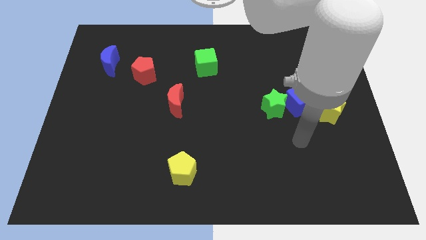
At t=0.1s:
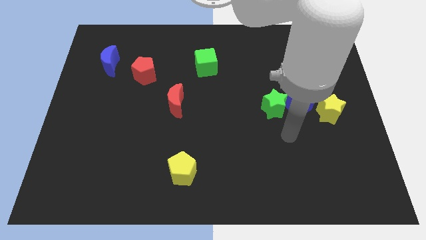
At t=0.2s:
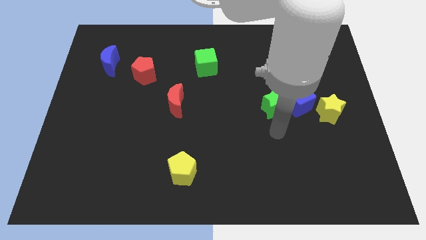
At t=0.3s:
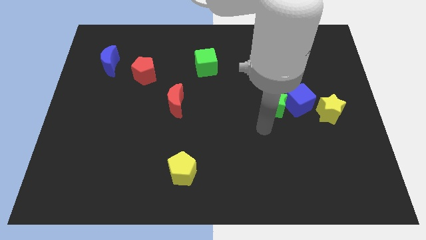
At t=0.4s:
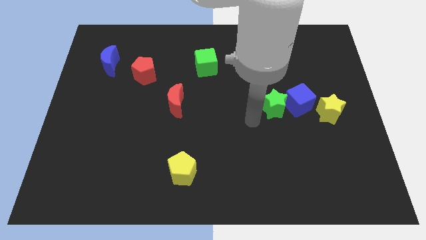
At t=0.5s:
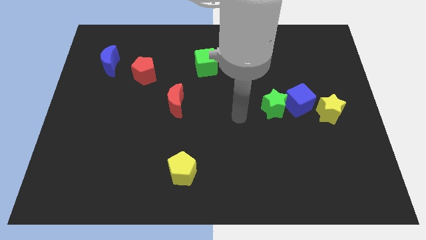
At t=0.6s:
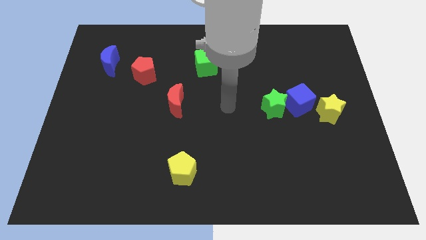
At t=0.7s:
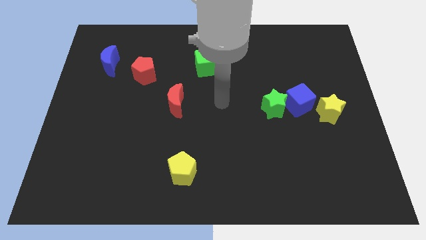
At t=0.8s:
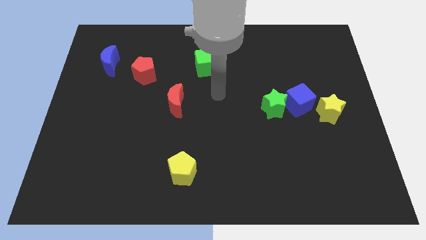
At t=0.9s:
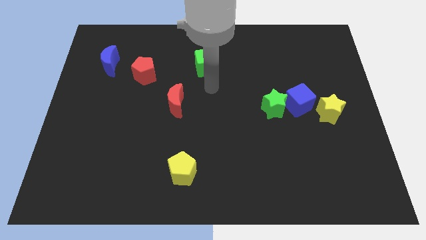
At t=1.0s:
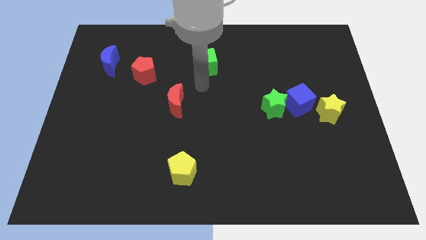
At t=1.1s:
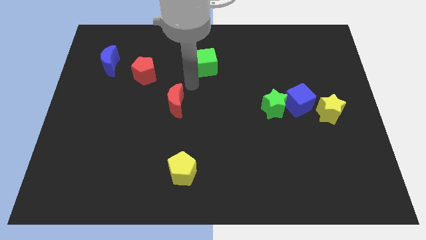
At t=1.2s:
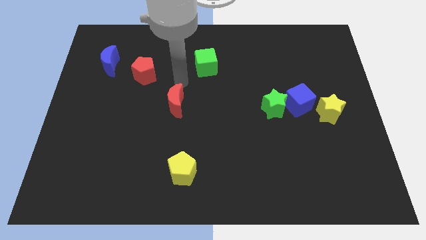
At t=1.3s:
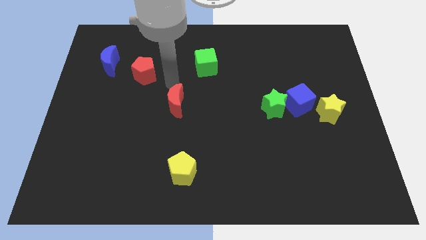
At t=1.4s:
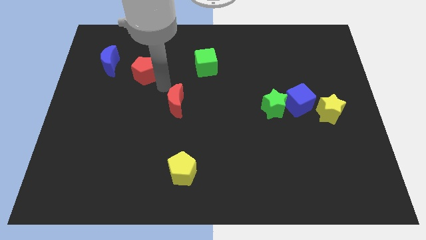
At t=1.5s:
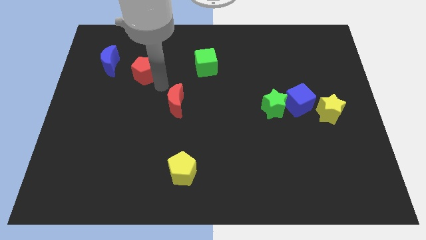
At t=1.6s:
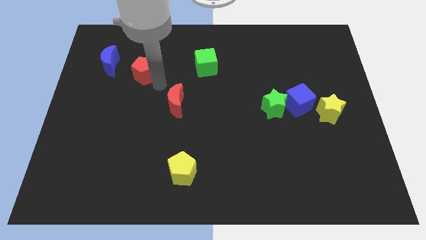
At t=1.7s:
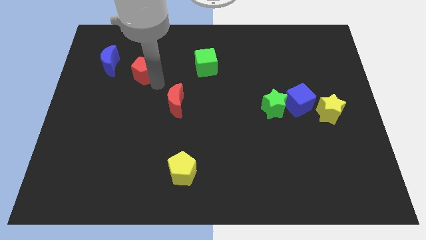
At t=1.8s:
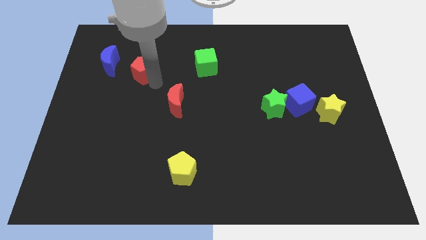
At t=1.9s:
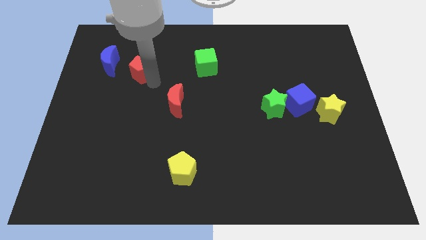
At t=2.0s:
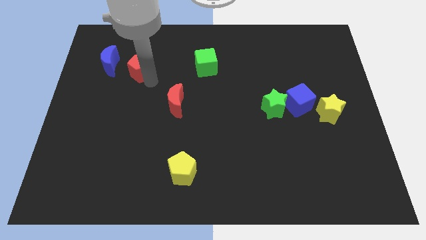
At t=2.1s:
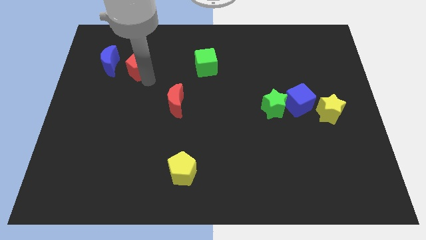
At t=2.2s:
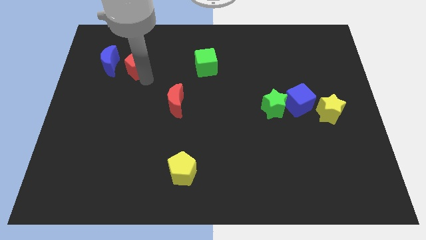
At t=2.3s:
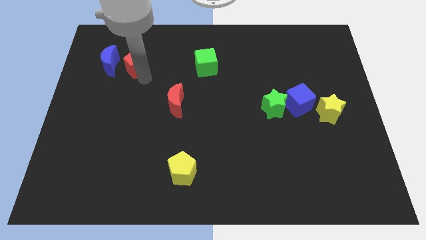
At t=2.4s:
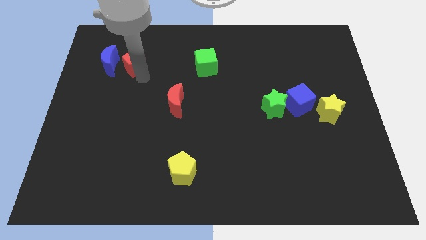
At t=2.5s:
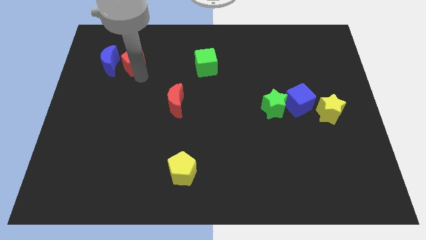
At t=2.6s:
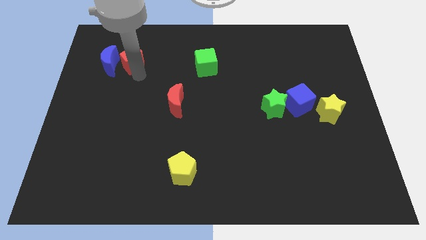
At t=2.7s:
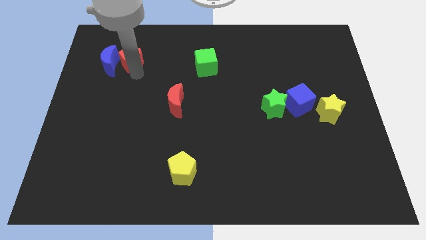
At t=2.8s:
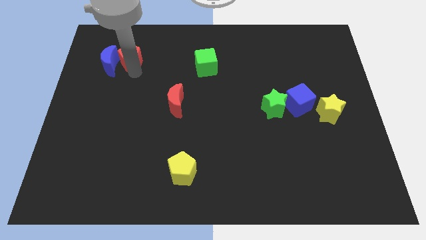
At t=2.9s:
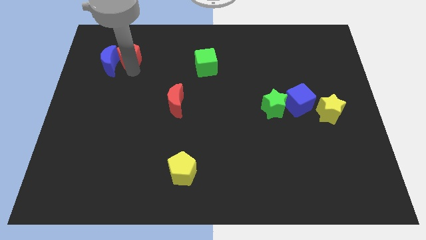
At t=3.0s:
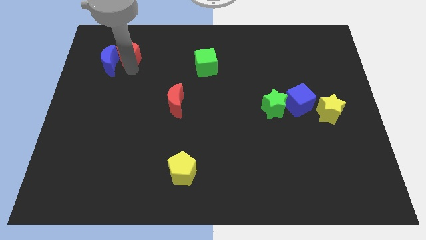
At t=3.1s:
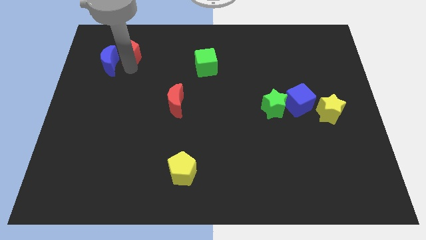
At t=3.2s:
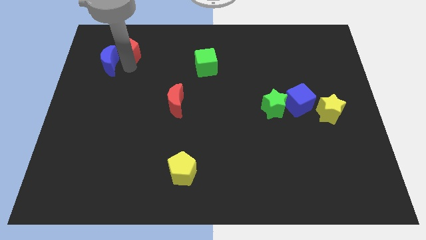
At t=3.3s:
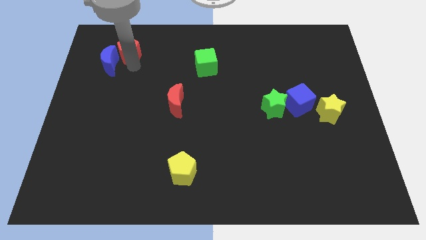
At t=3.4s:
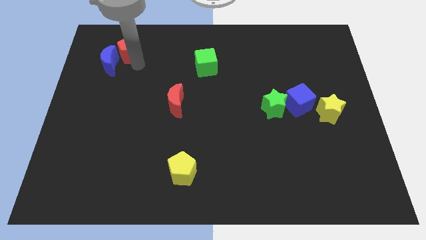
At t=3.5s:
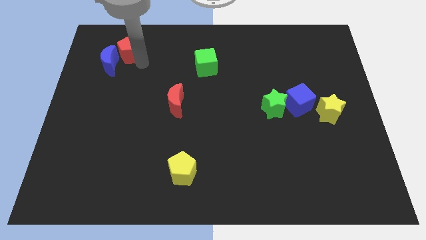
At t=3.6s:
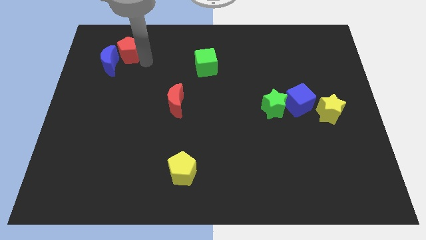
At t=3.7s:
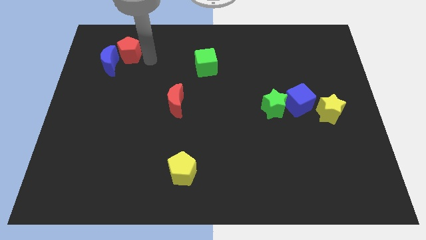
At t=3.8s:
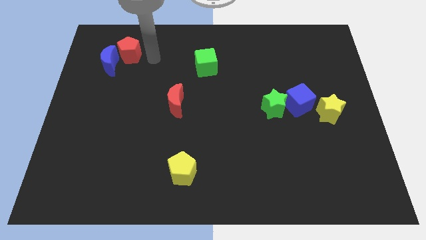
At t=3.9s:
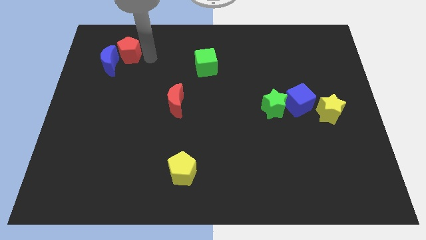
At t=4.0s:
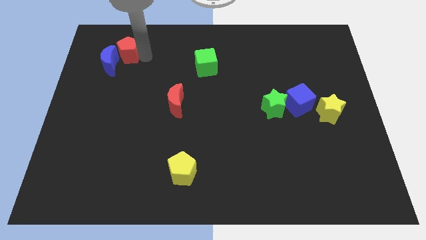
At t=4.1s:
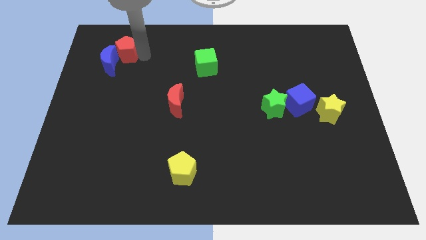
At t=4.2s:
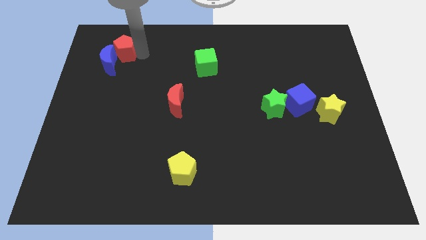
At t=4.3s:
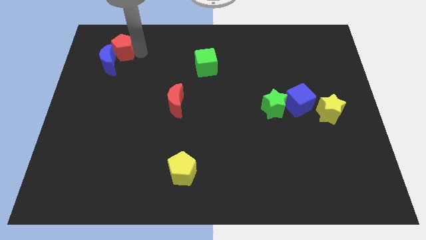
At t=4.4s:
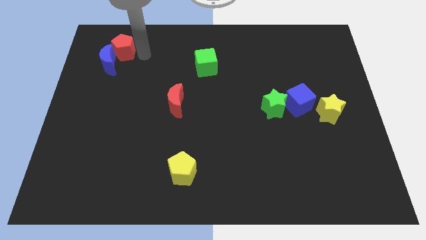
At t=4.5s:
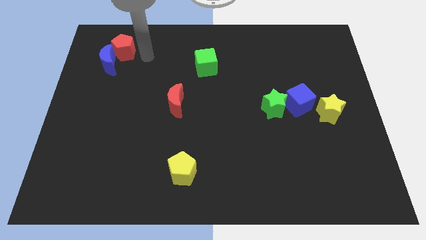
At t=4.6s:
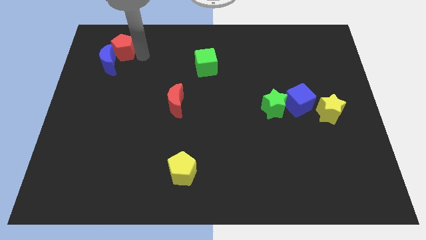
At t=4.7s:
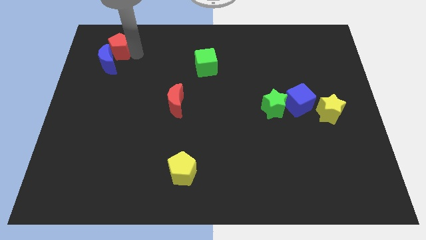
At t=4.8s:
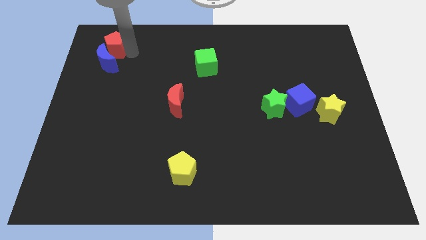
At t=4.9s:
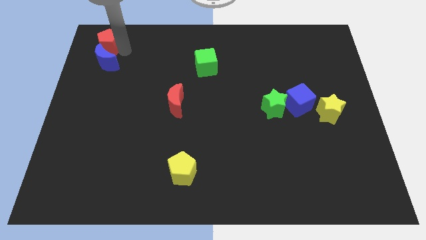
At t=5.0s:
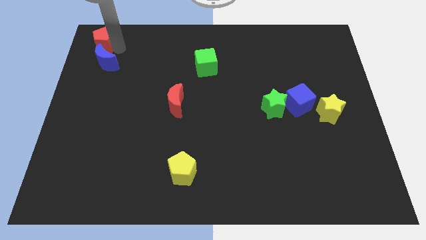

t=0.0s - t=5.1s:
push the red pentagon to the top left

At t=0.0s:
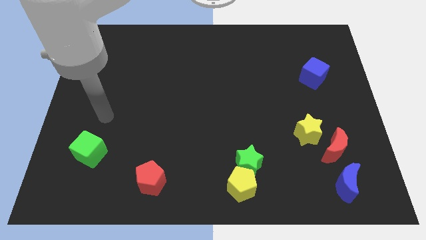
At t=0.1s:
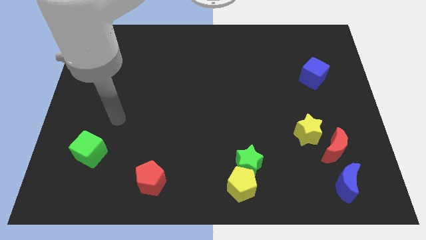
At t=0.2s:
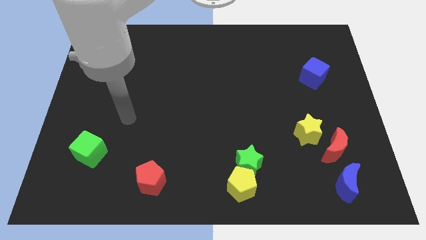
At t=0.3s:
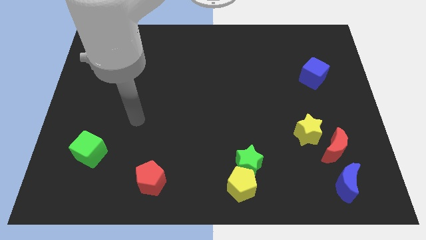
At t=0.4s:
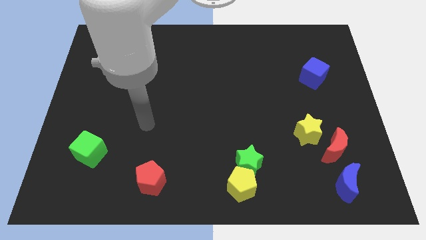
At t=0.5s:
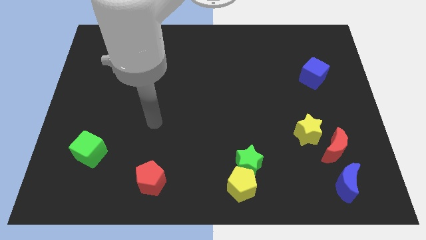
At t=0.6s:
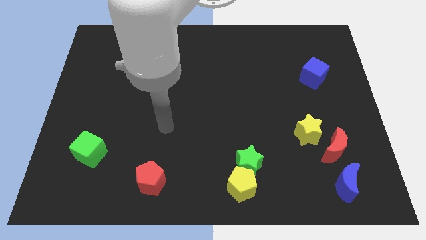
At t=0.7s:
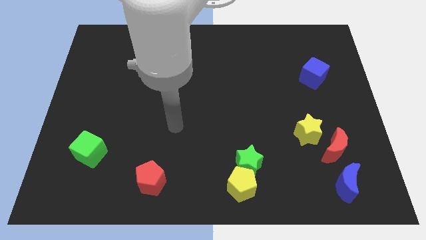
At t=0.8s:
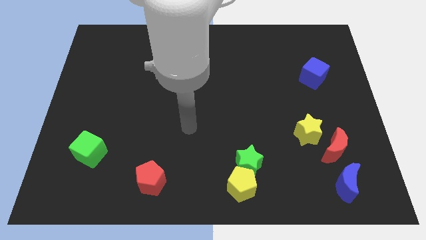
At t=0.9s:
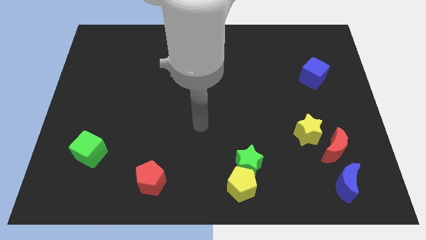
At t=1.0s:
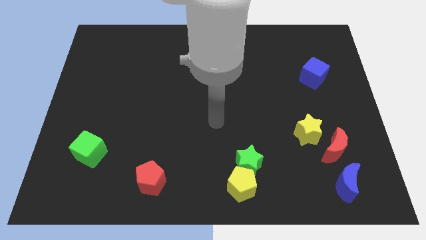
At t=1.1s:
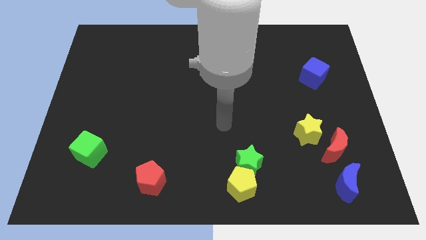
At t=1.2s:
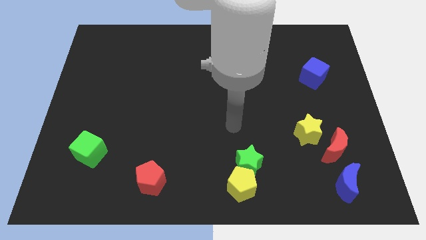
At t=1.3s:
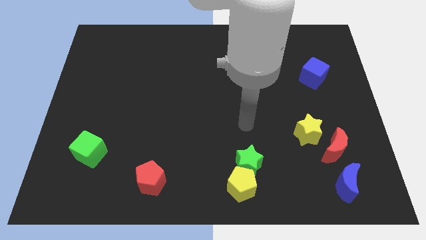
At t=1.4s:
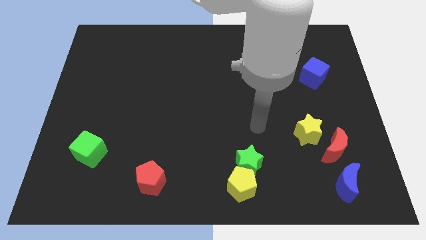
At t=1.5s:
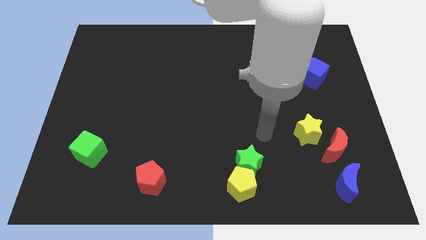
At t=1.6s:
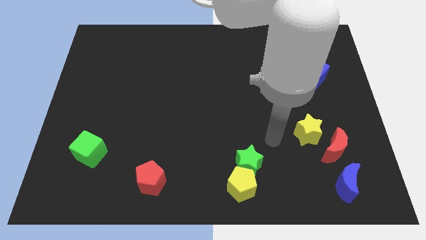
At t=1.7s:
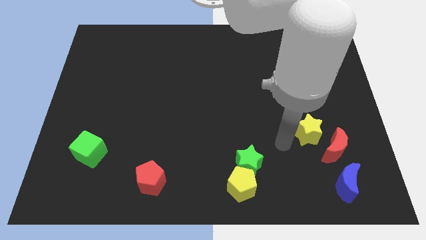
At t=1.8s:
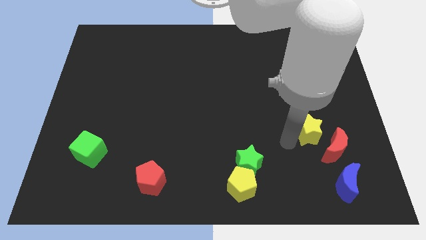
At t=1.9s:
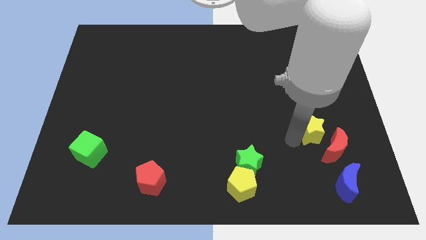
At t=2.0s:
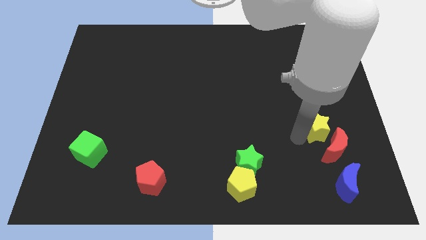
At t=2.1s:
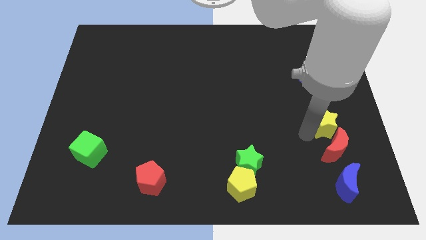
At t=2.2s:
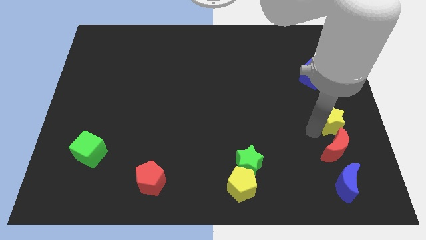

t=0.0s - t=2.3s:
put the yellow star to the center right
